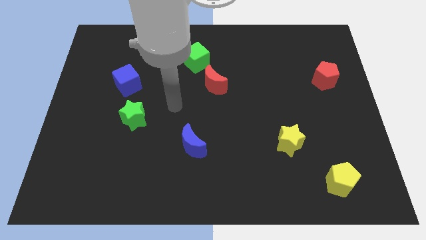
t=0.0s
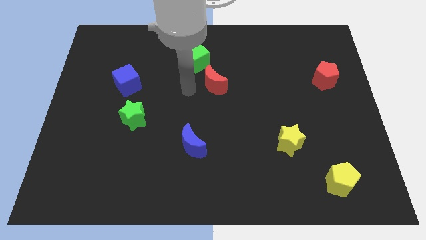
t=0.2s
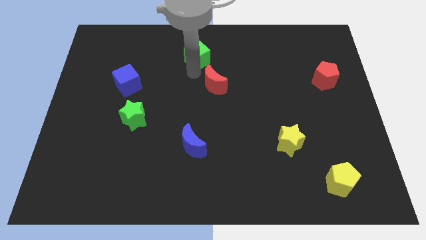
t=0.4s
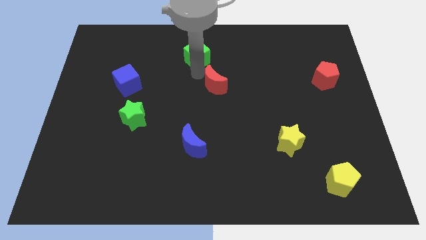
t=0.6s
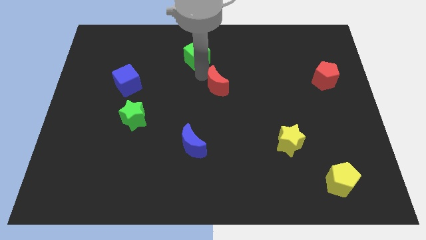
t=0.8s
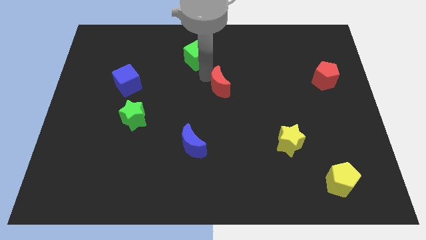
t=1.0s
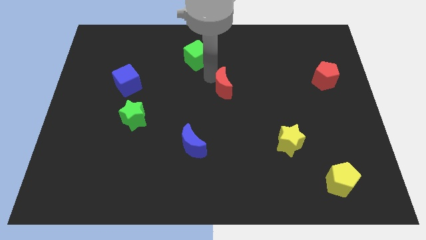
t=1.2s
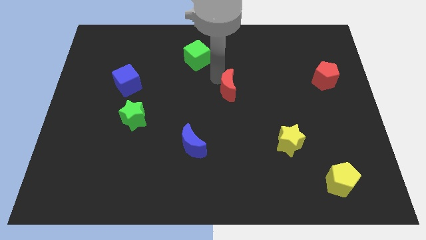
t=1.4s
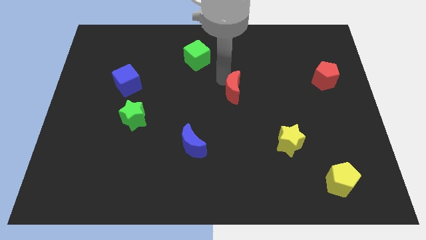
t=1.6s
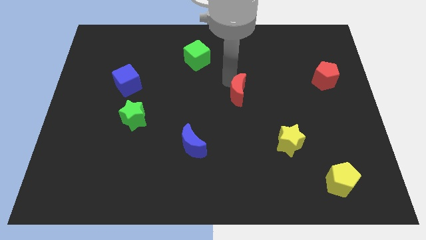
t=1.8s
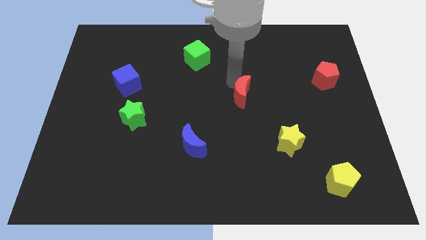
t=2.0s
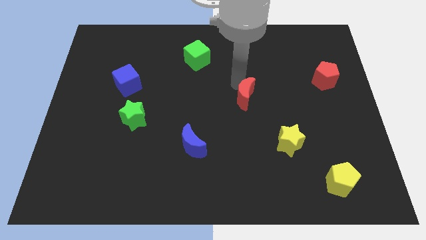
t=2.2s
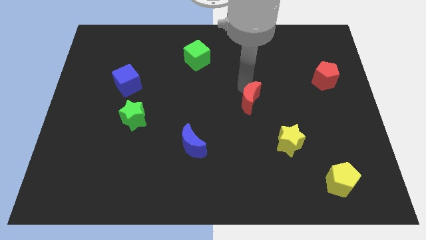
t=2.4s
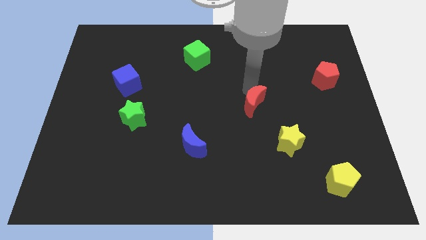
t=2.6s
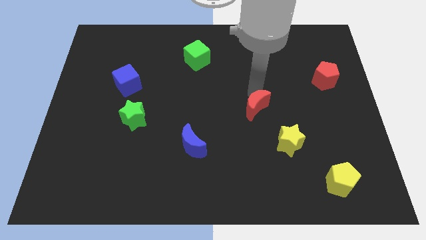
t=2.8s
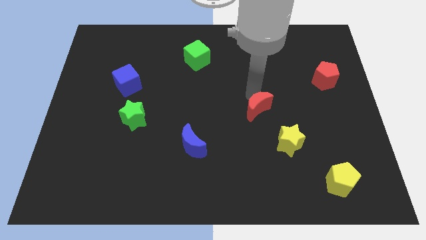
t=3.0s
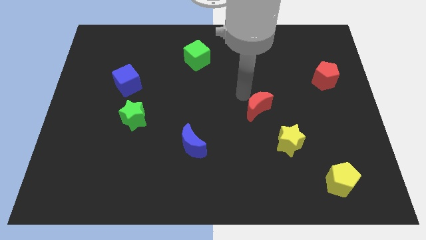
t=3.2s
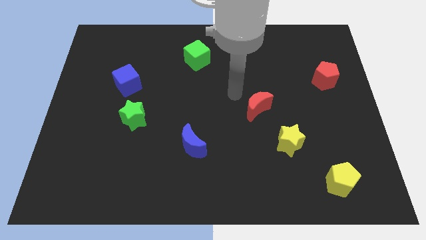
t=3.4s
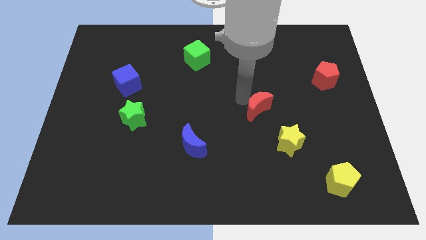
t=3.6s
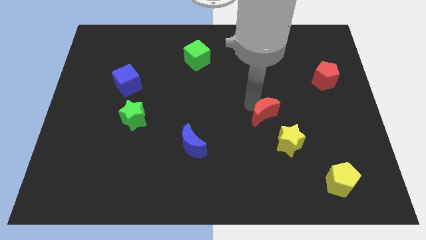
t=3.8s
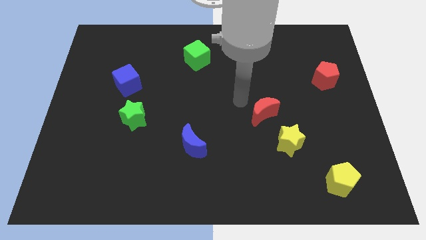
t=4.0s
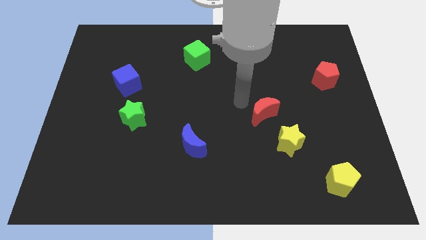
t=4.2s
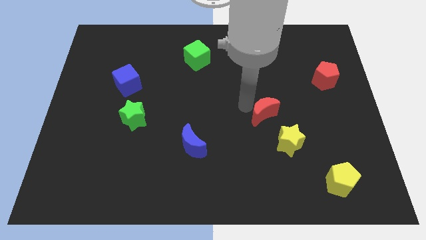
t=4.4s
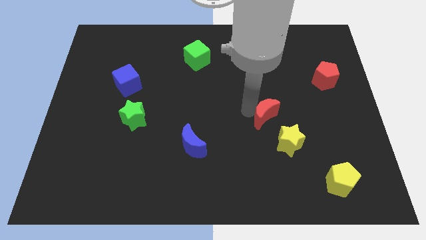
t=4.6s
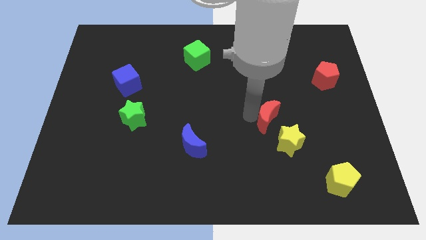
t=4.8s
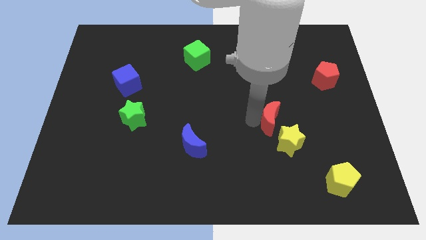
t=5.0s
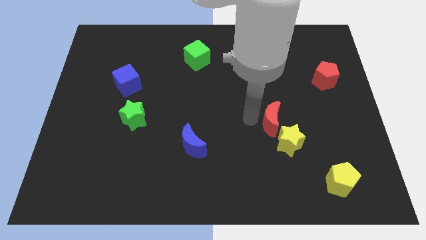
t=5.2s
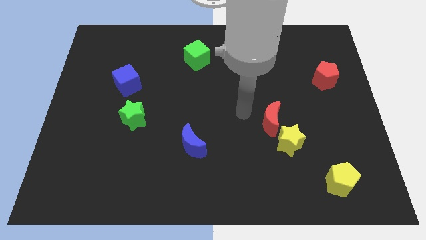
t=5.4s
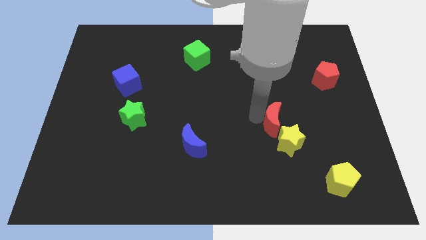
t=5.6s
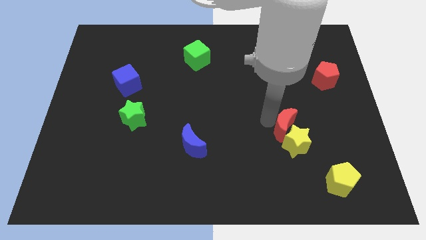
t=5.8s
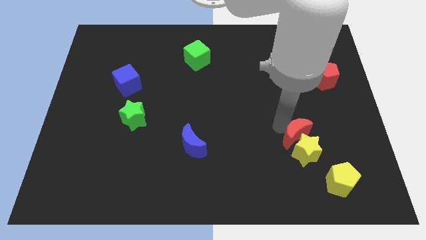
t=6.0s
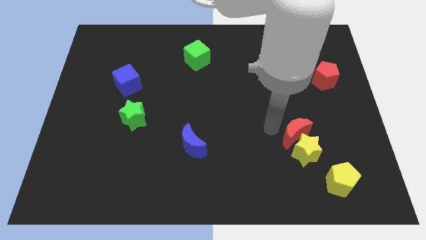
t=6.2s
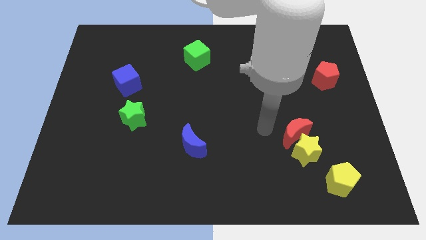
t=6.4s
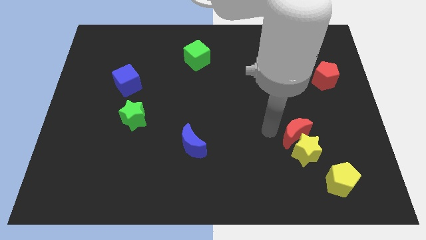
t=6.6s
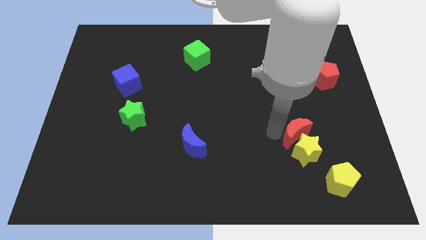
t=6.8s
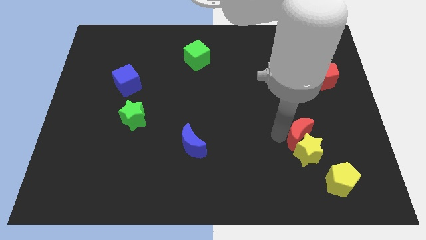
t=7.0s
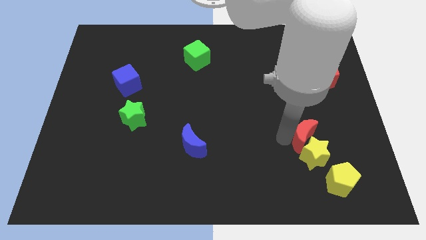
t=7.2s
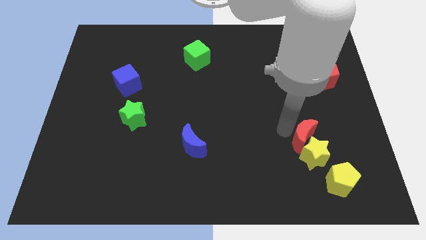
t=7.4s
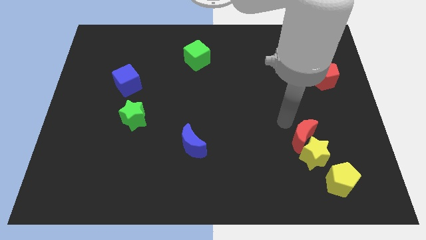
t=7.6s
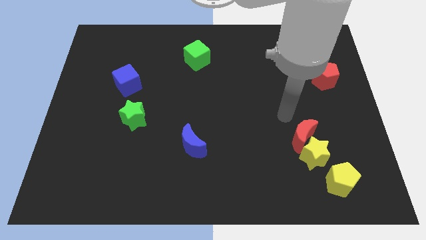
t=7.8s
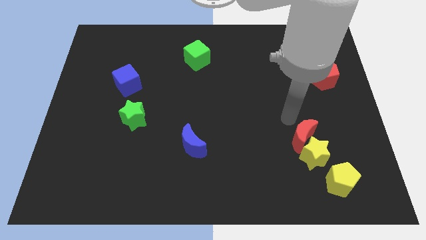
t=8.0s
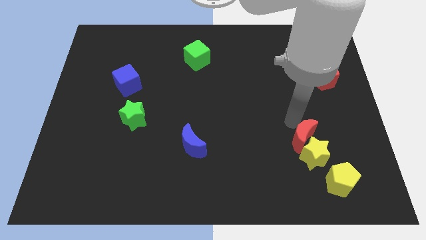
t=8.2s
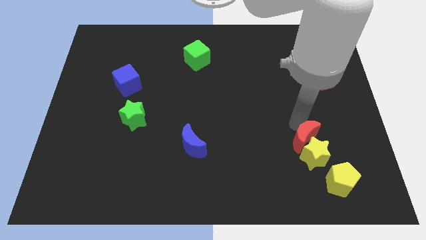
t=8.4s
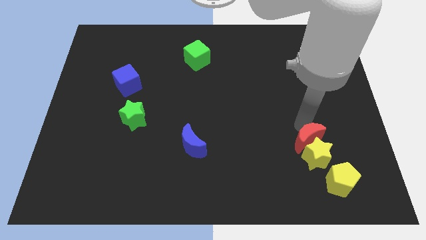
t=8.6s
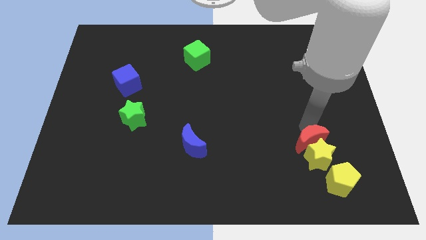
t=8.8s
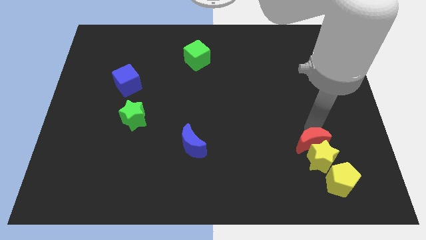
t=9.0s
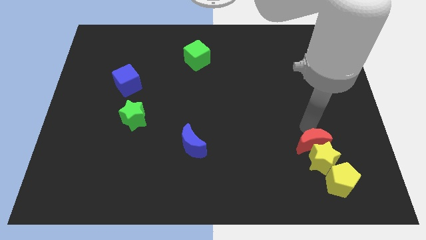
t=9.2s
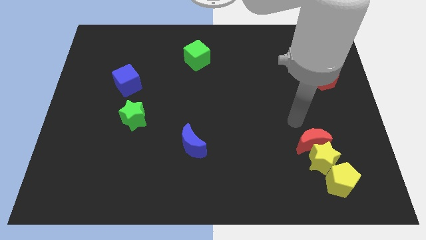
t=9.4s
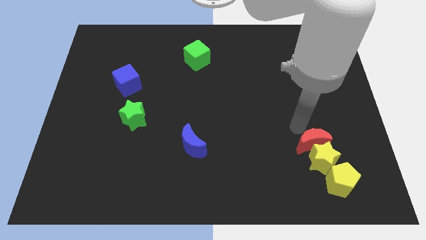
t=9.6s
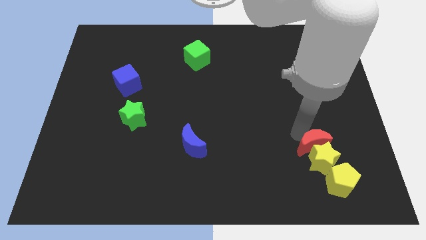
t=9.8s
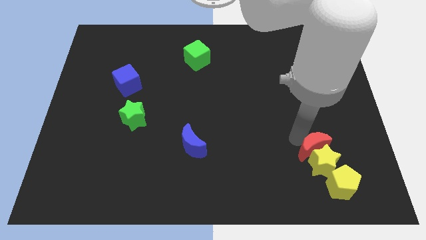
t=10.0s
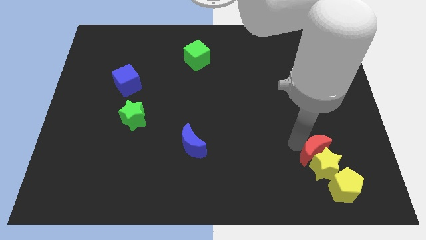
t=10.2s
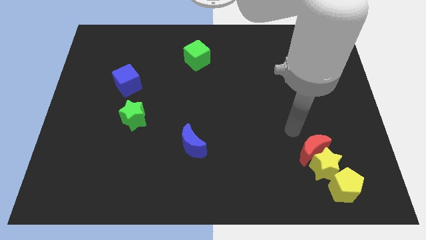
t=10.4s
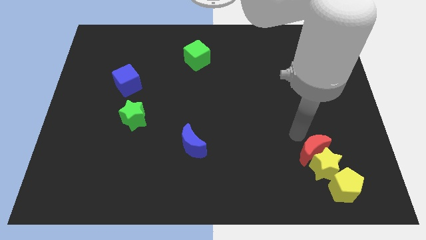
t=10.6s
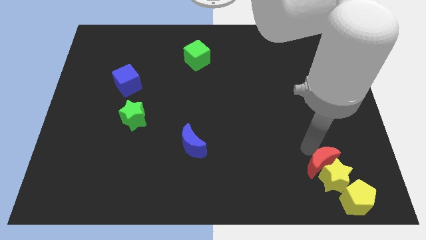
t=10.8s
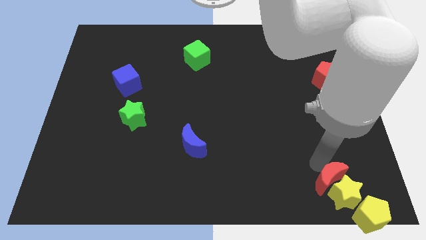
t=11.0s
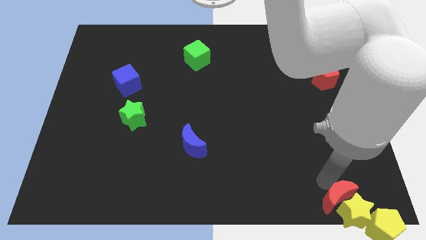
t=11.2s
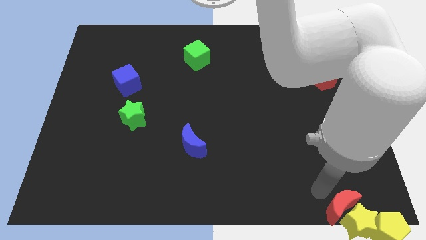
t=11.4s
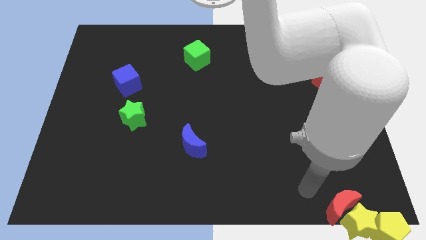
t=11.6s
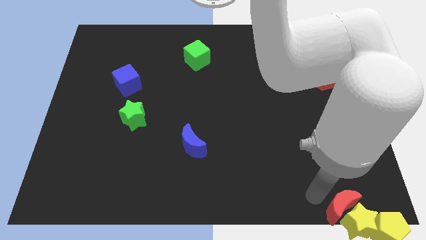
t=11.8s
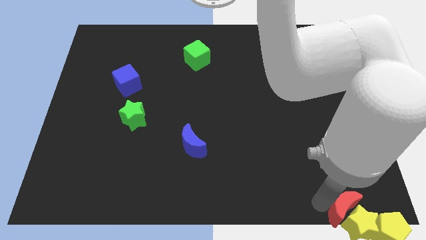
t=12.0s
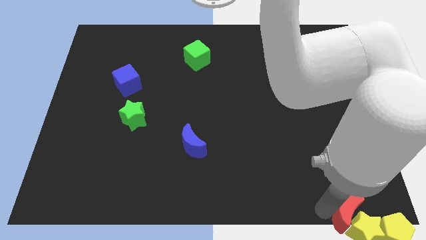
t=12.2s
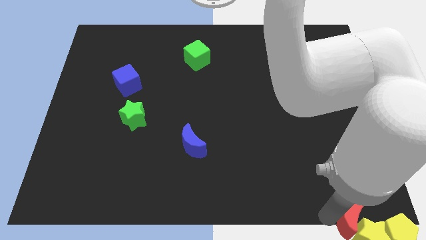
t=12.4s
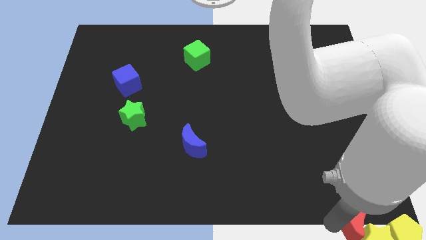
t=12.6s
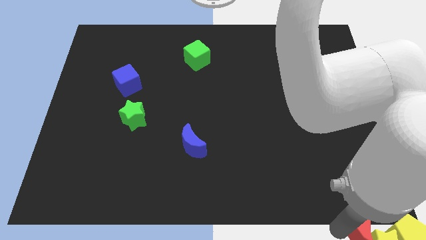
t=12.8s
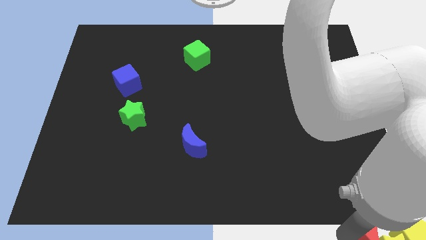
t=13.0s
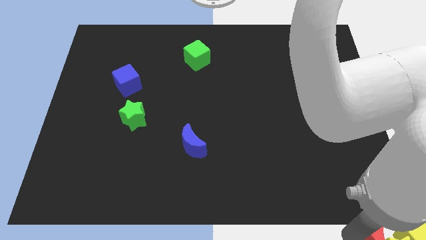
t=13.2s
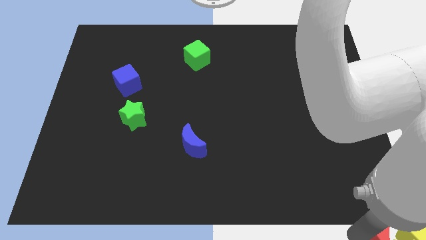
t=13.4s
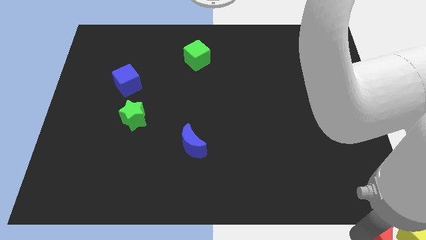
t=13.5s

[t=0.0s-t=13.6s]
put the red moon close to the yellow pentagon
